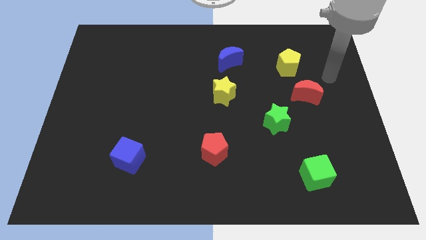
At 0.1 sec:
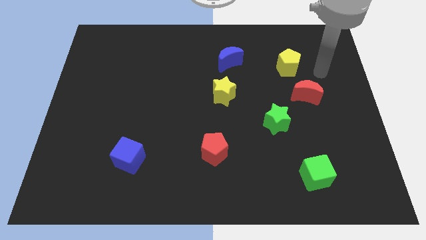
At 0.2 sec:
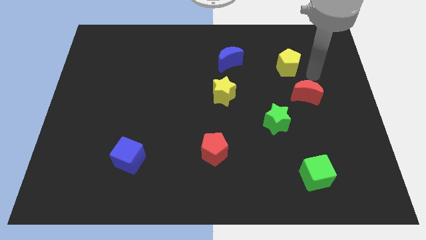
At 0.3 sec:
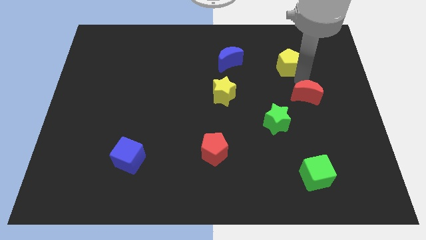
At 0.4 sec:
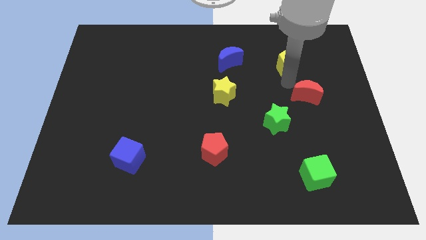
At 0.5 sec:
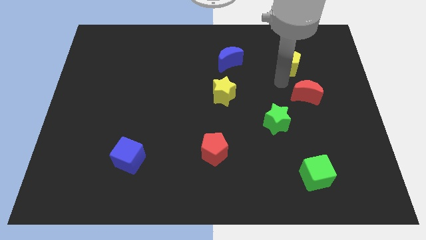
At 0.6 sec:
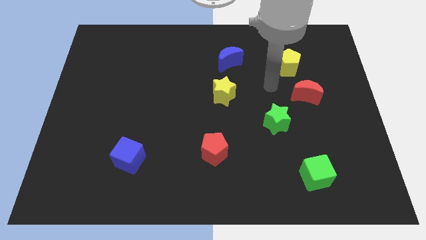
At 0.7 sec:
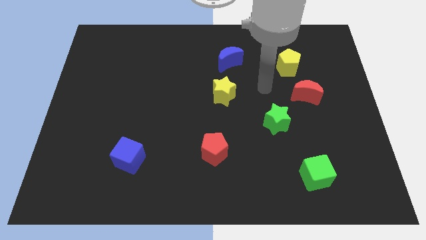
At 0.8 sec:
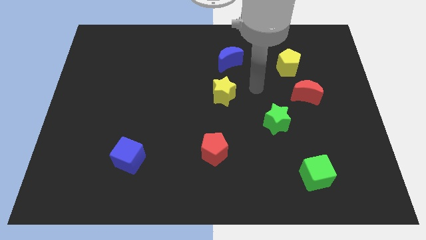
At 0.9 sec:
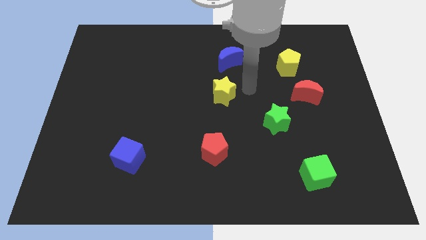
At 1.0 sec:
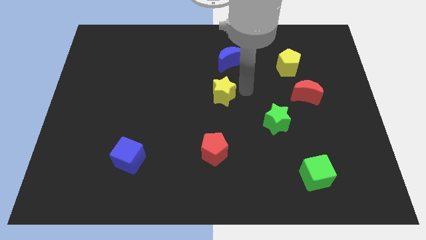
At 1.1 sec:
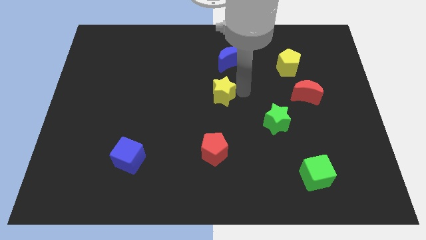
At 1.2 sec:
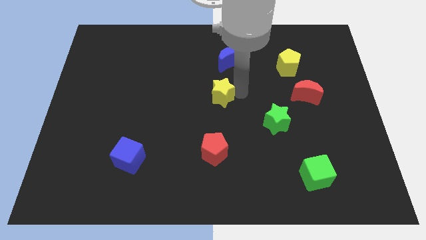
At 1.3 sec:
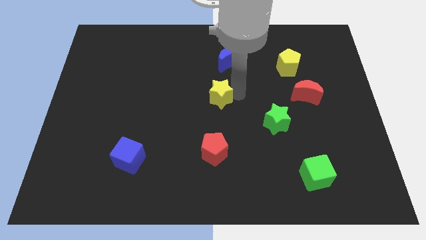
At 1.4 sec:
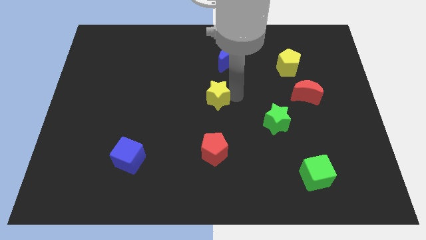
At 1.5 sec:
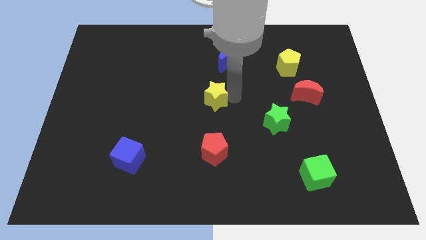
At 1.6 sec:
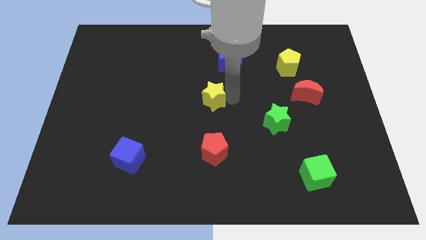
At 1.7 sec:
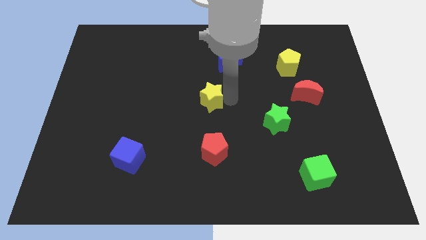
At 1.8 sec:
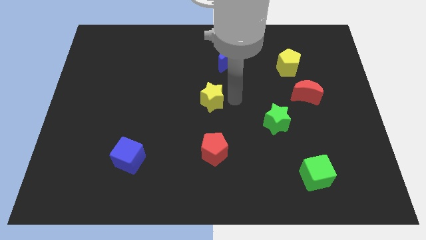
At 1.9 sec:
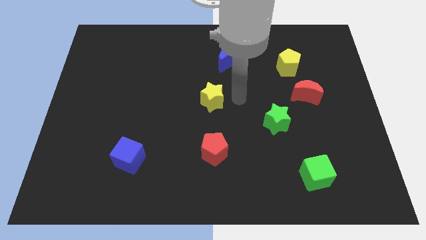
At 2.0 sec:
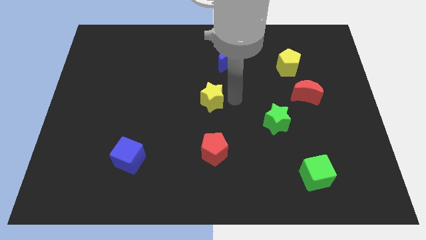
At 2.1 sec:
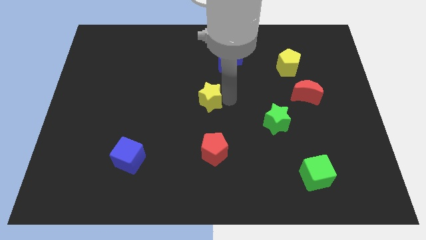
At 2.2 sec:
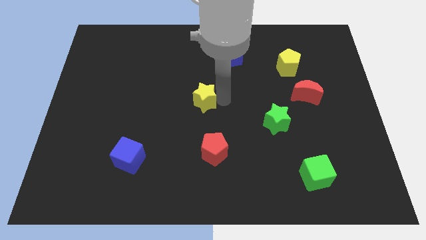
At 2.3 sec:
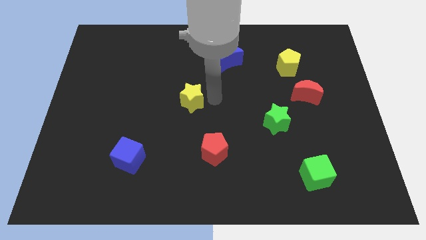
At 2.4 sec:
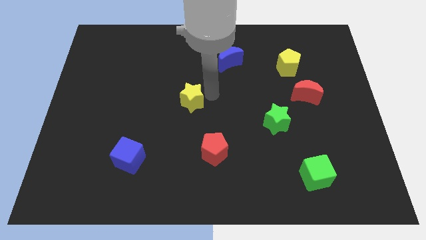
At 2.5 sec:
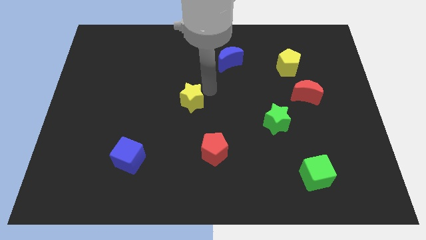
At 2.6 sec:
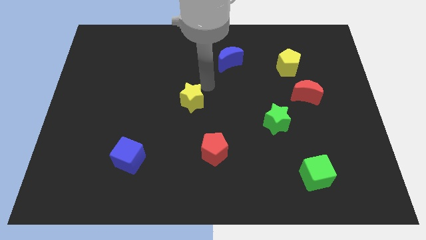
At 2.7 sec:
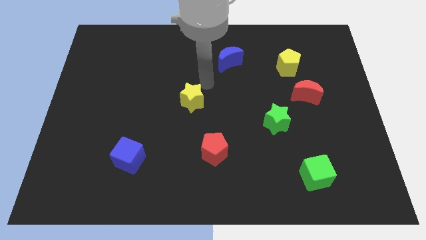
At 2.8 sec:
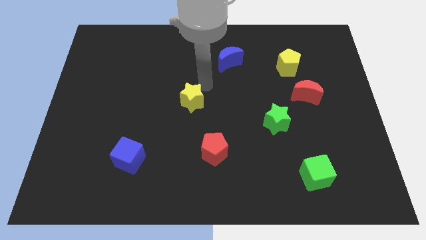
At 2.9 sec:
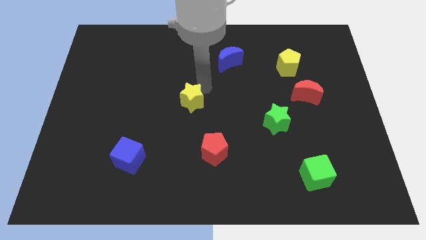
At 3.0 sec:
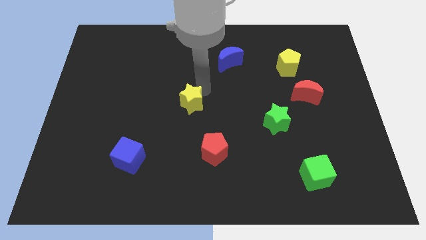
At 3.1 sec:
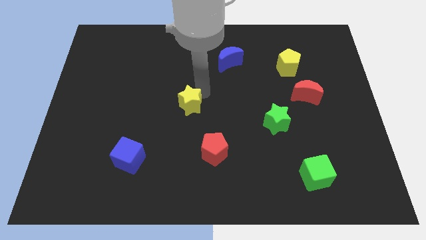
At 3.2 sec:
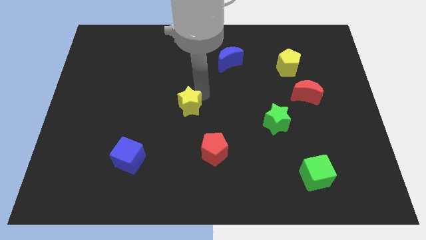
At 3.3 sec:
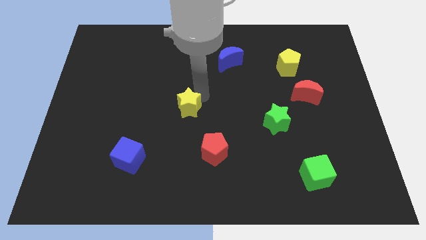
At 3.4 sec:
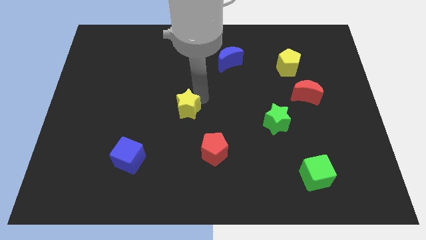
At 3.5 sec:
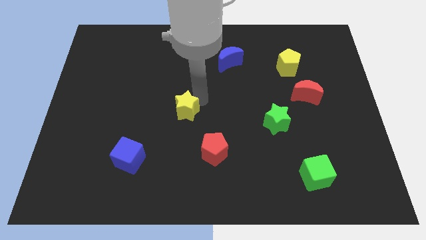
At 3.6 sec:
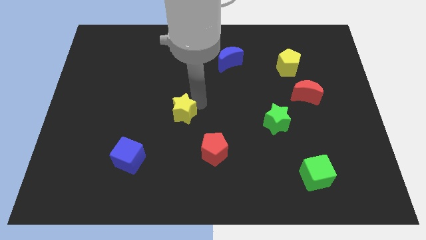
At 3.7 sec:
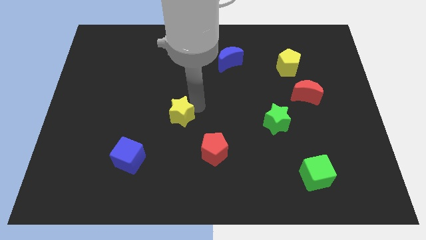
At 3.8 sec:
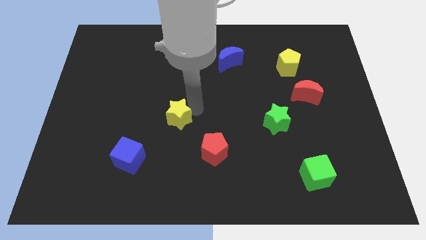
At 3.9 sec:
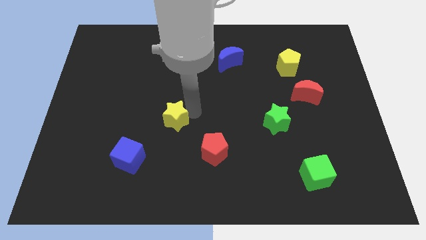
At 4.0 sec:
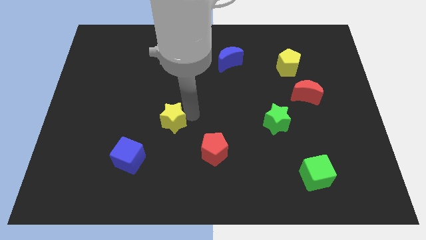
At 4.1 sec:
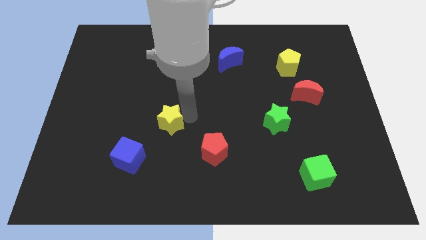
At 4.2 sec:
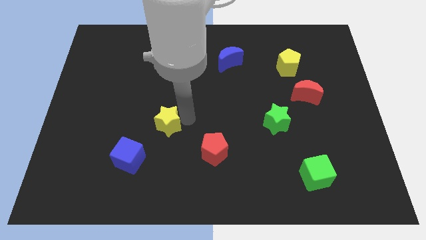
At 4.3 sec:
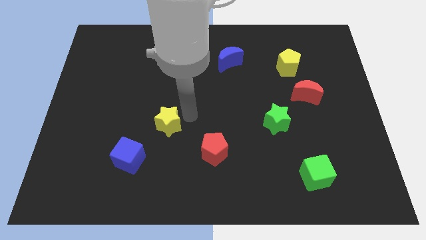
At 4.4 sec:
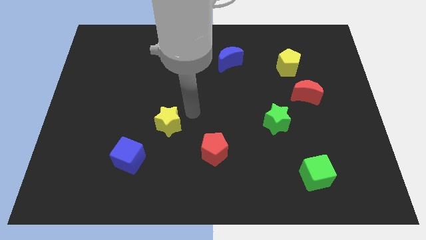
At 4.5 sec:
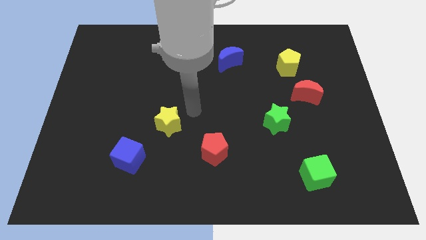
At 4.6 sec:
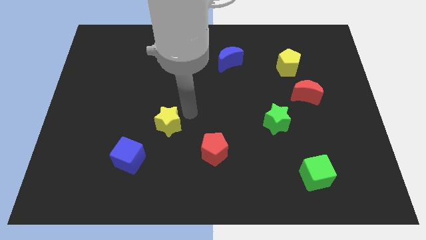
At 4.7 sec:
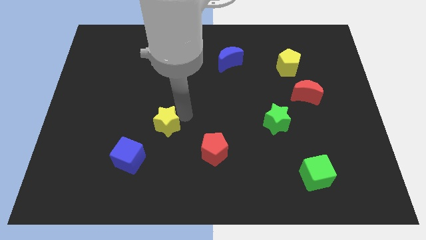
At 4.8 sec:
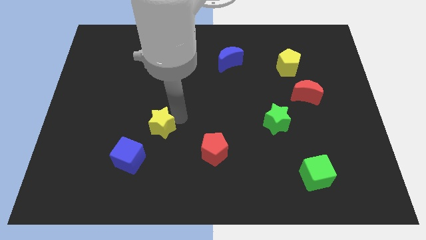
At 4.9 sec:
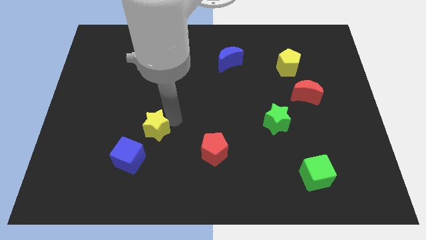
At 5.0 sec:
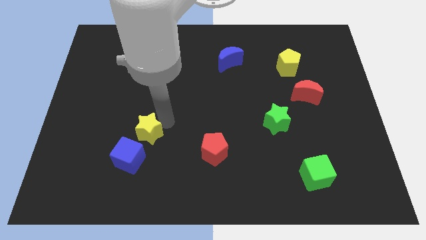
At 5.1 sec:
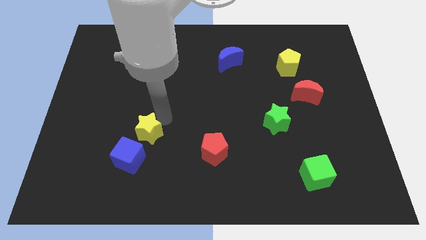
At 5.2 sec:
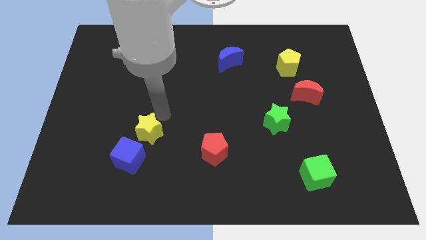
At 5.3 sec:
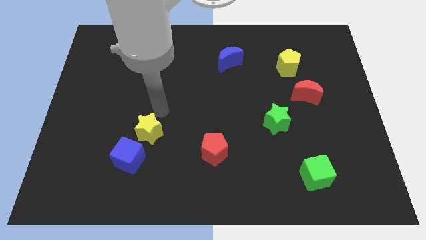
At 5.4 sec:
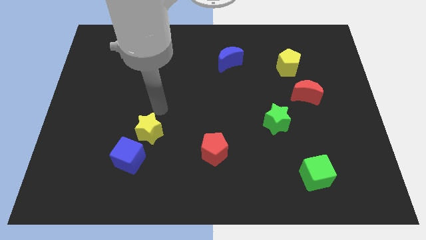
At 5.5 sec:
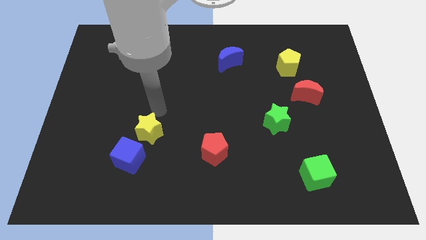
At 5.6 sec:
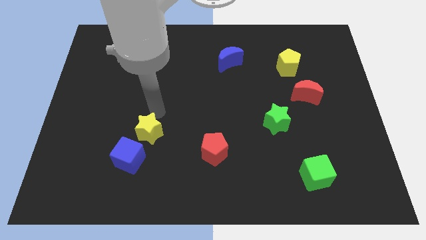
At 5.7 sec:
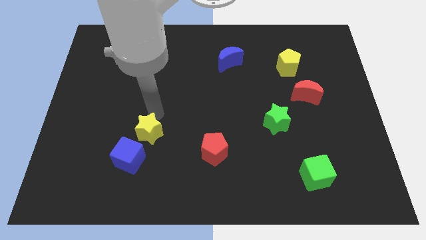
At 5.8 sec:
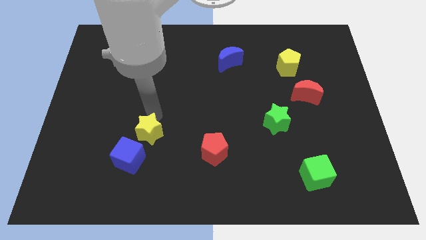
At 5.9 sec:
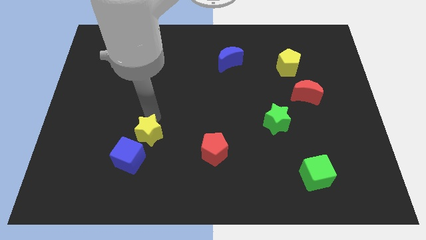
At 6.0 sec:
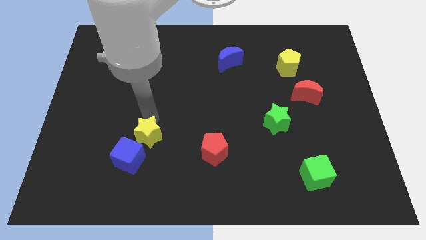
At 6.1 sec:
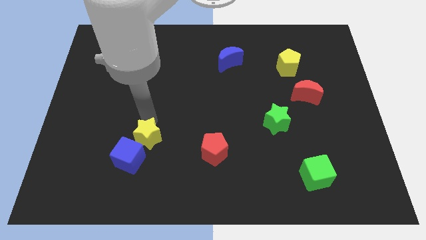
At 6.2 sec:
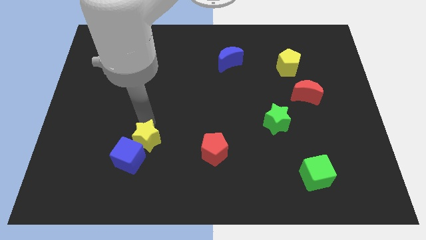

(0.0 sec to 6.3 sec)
move the yellow star next to the blue cube
